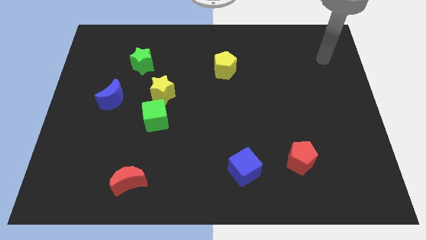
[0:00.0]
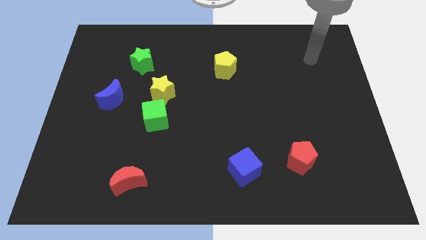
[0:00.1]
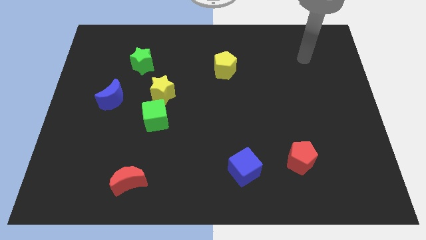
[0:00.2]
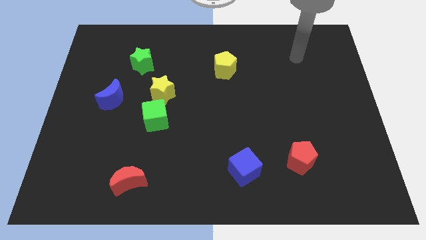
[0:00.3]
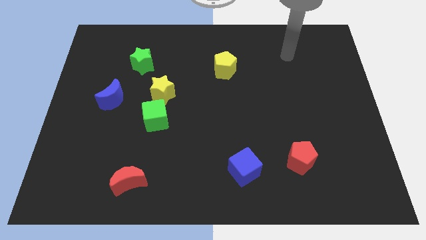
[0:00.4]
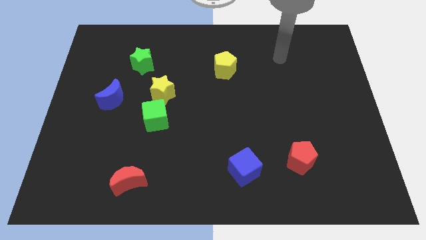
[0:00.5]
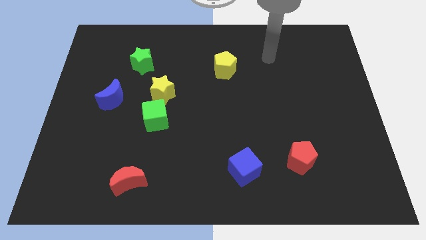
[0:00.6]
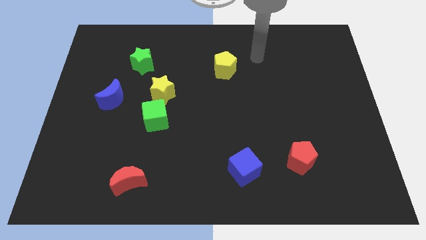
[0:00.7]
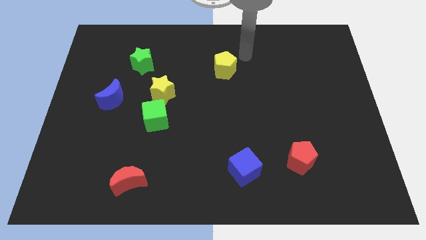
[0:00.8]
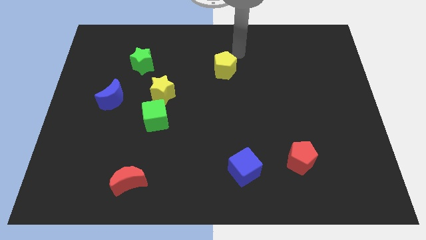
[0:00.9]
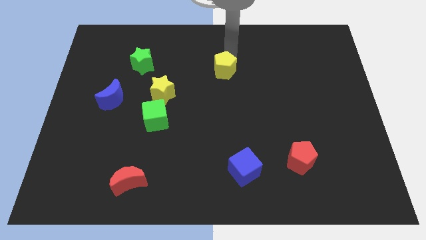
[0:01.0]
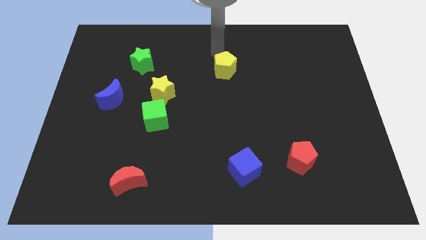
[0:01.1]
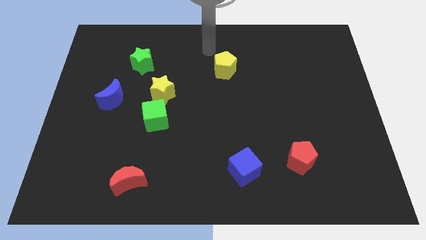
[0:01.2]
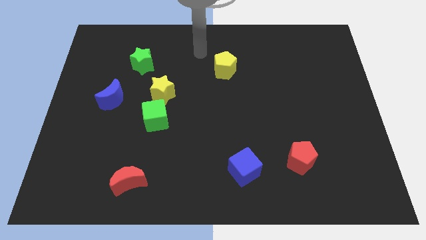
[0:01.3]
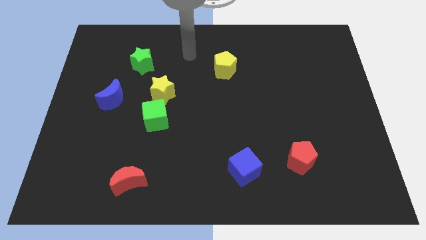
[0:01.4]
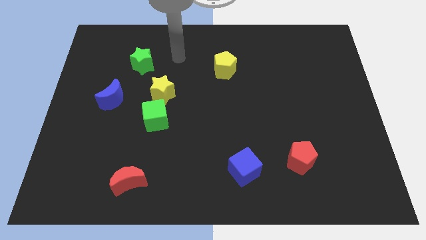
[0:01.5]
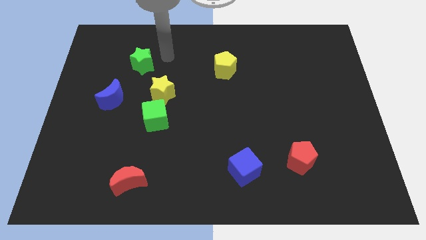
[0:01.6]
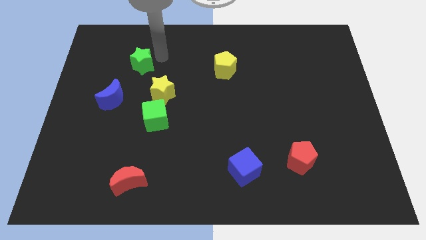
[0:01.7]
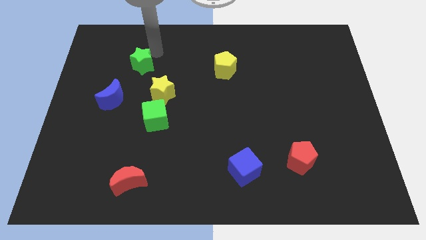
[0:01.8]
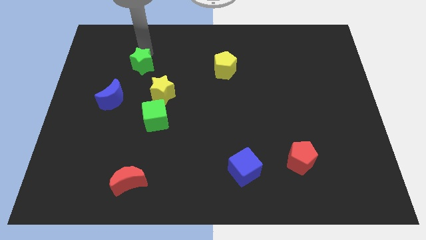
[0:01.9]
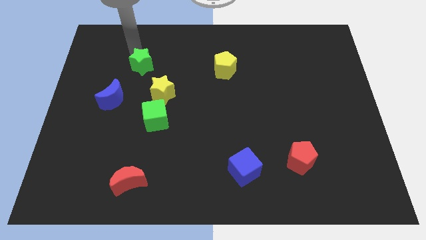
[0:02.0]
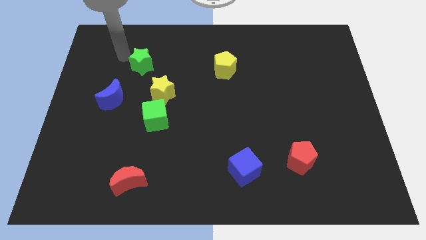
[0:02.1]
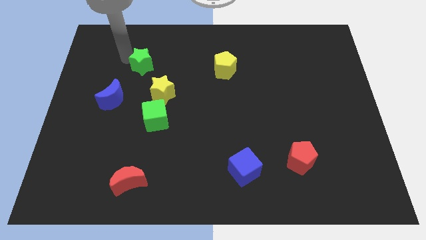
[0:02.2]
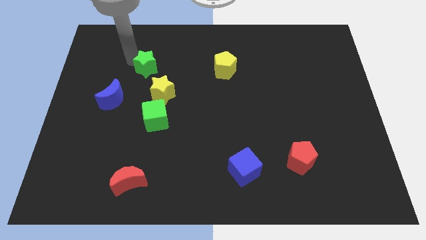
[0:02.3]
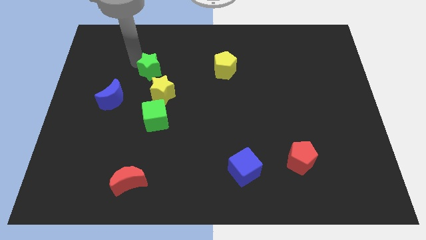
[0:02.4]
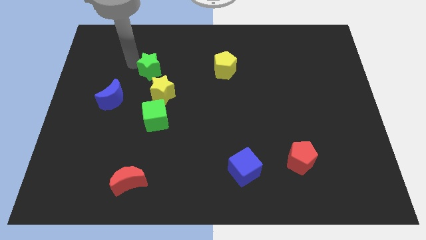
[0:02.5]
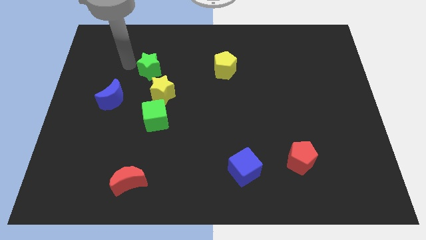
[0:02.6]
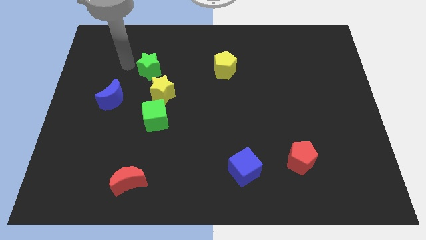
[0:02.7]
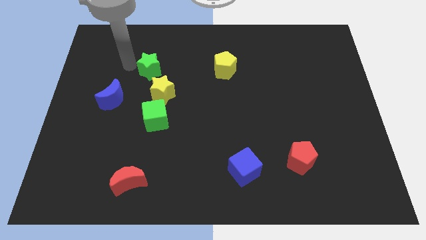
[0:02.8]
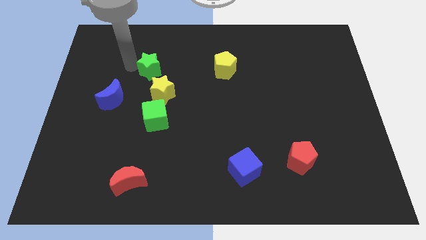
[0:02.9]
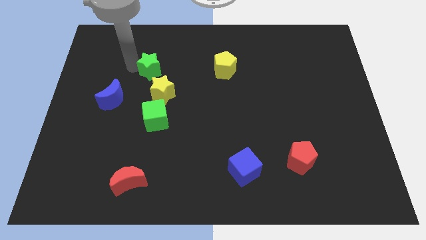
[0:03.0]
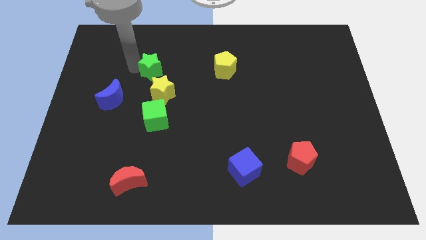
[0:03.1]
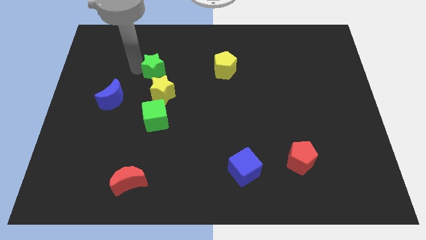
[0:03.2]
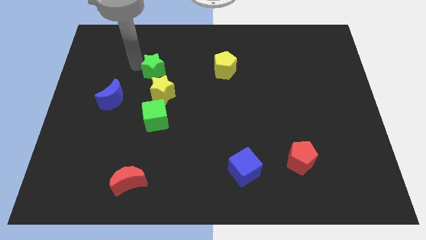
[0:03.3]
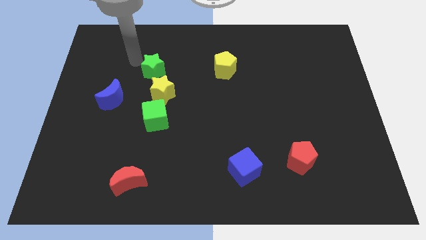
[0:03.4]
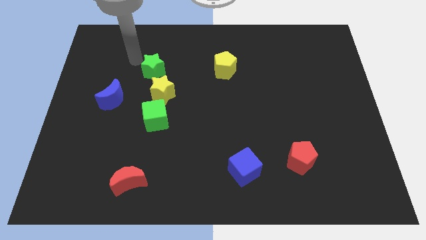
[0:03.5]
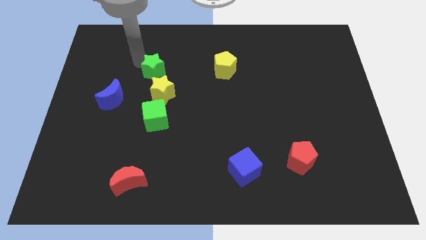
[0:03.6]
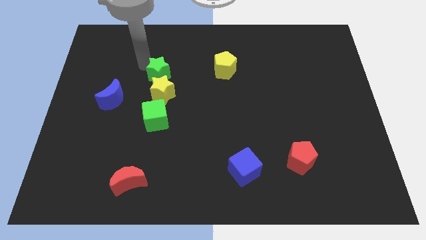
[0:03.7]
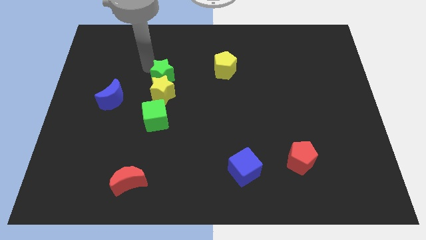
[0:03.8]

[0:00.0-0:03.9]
slightly push the green star down and then right

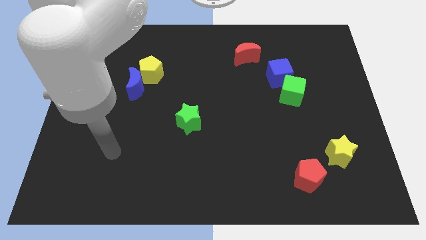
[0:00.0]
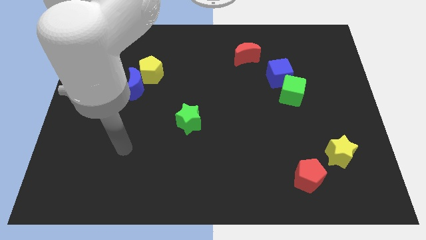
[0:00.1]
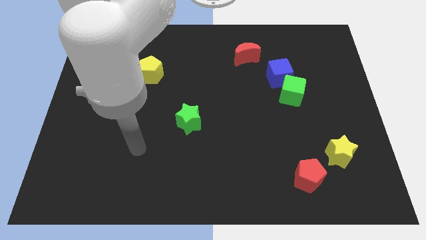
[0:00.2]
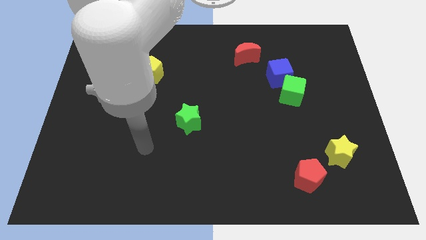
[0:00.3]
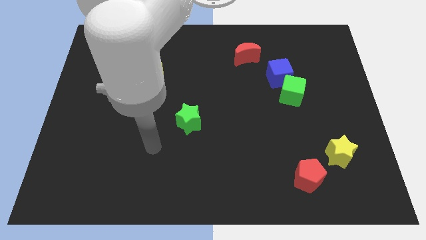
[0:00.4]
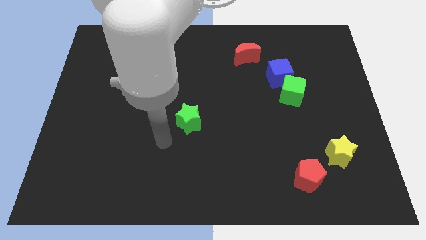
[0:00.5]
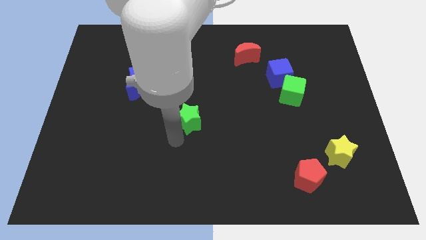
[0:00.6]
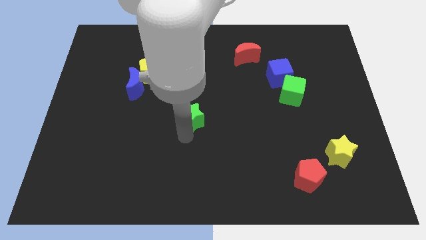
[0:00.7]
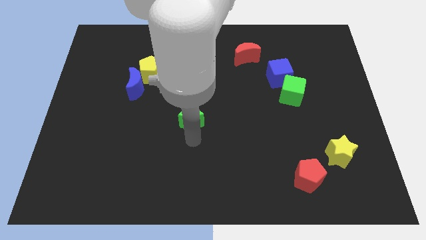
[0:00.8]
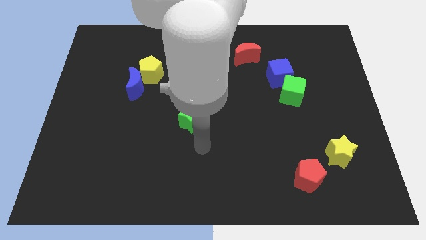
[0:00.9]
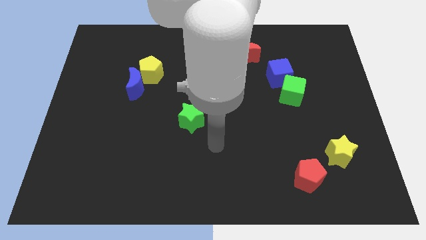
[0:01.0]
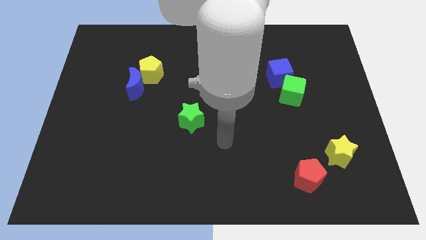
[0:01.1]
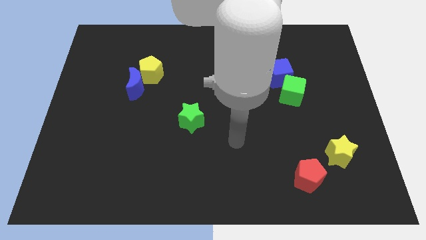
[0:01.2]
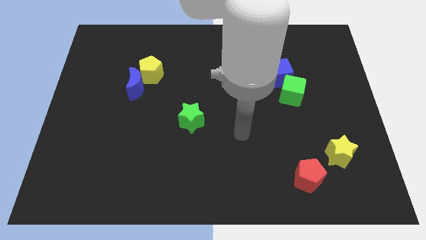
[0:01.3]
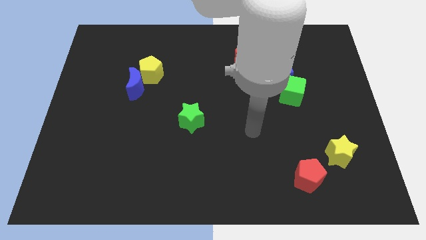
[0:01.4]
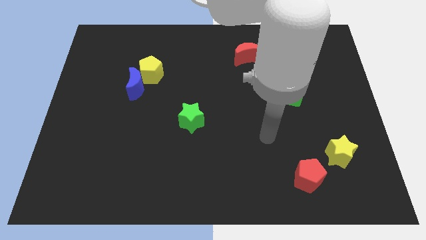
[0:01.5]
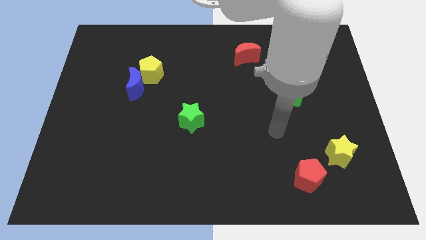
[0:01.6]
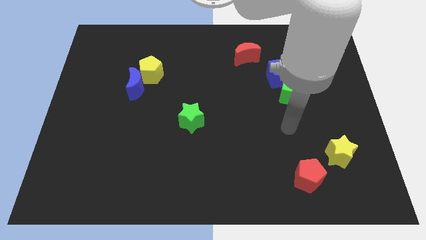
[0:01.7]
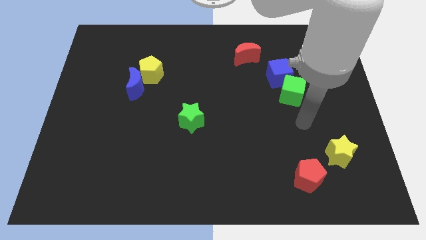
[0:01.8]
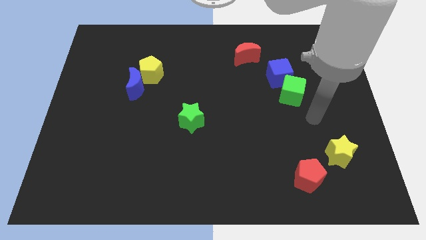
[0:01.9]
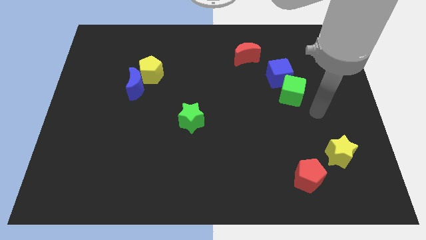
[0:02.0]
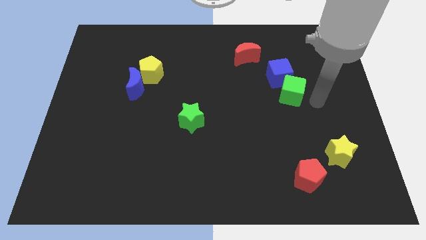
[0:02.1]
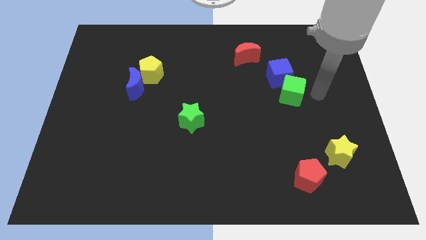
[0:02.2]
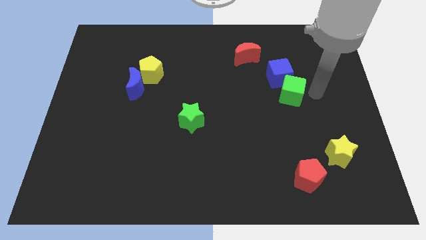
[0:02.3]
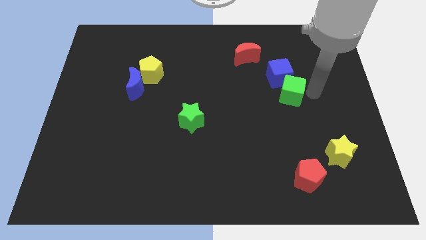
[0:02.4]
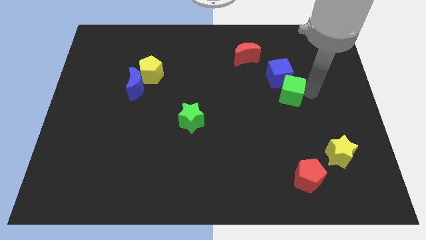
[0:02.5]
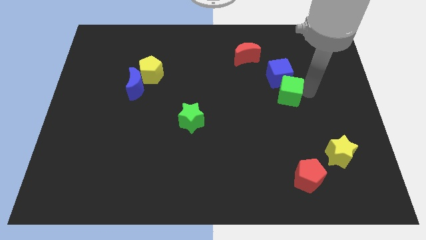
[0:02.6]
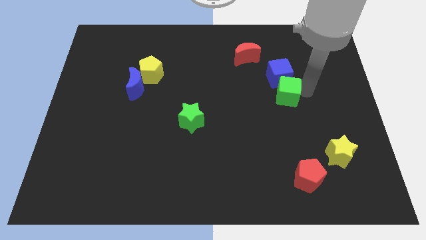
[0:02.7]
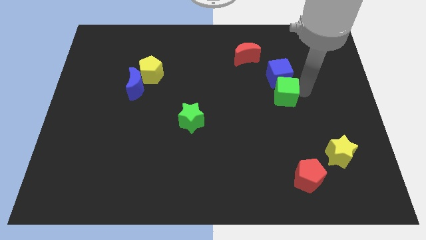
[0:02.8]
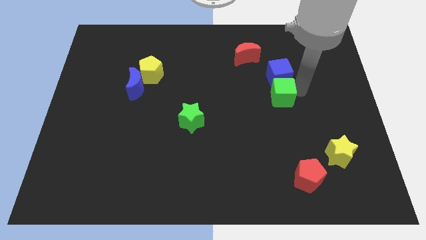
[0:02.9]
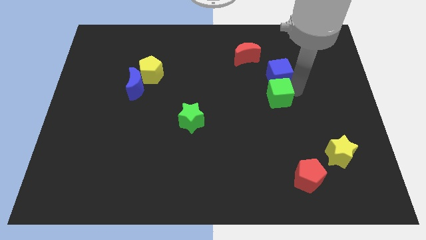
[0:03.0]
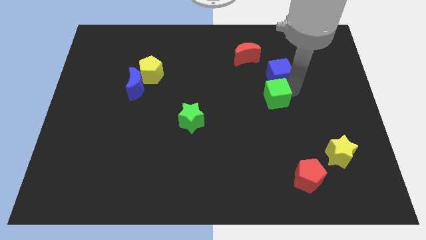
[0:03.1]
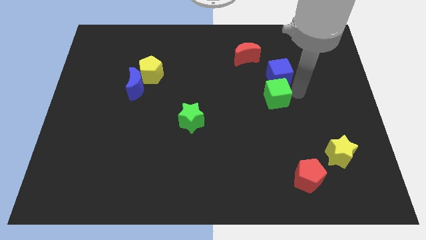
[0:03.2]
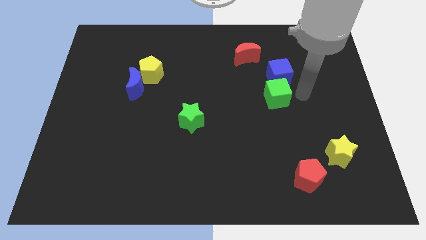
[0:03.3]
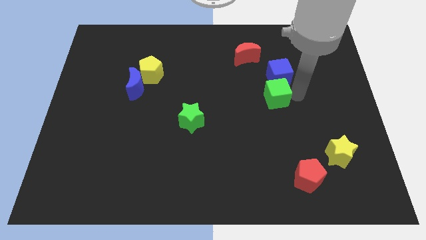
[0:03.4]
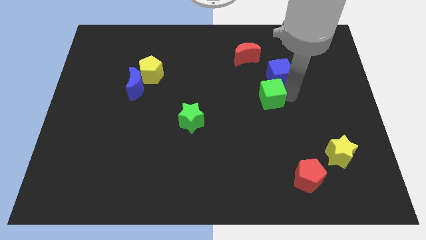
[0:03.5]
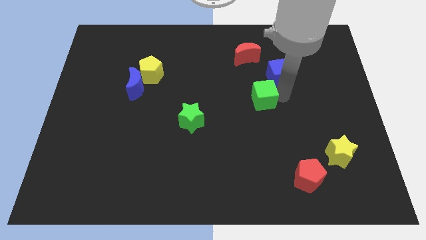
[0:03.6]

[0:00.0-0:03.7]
slightly move the green cube left
